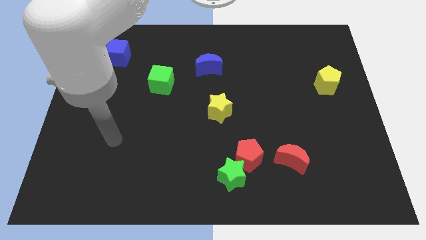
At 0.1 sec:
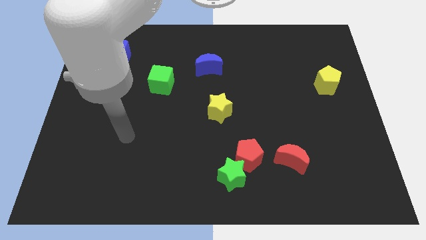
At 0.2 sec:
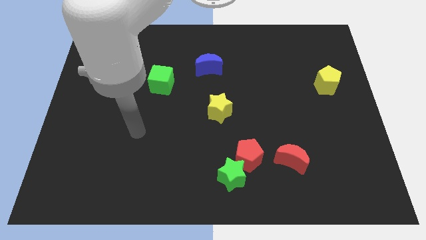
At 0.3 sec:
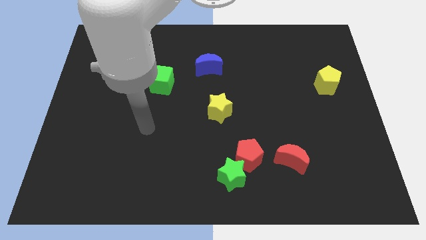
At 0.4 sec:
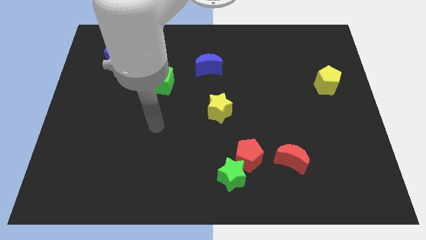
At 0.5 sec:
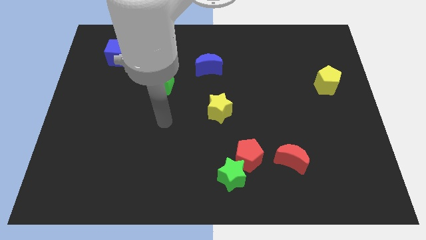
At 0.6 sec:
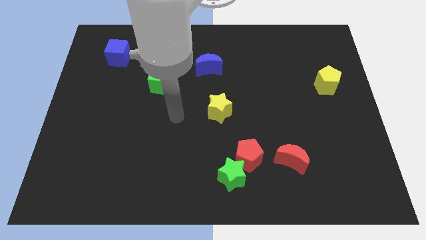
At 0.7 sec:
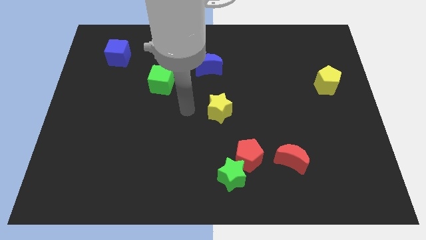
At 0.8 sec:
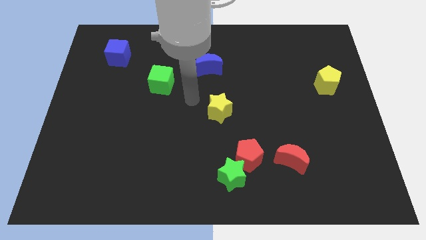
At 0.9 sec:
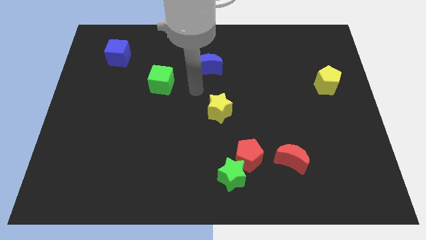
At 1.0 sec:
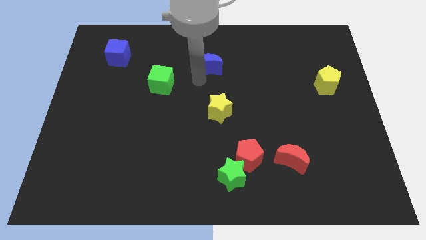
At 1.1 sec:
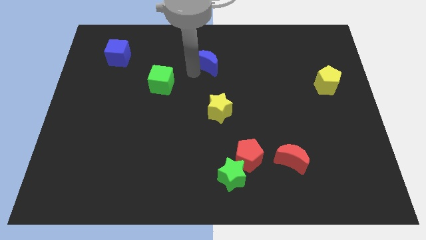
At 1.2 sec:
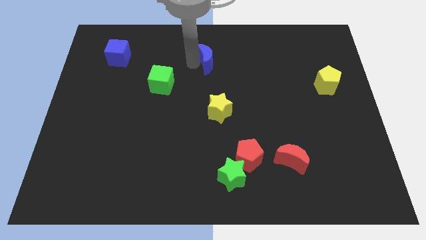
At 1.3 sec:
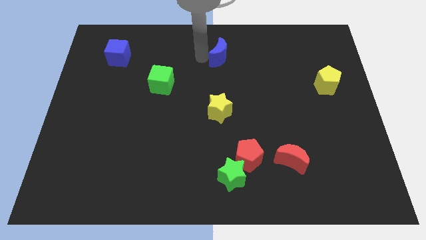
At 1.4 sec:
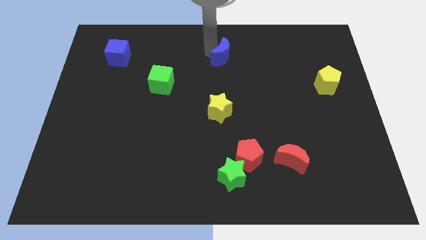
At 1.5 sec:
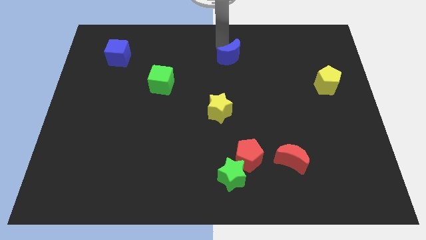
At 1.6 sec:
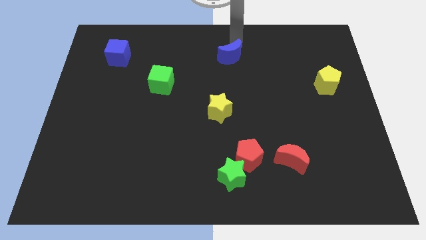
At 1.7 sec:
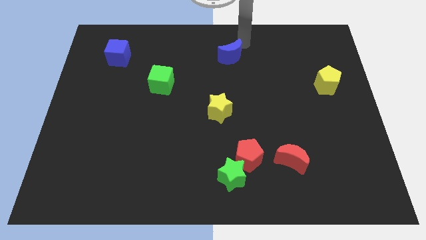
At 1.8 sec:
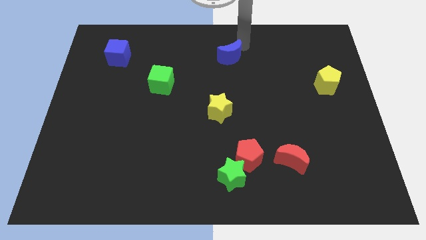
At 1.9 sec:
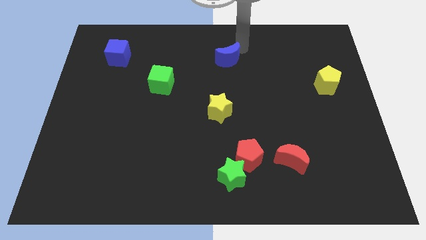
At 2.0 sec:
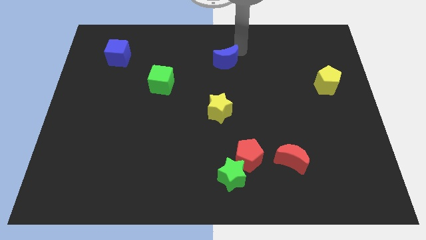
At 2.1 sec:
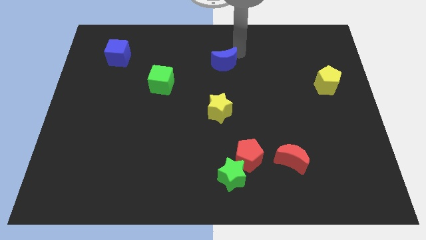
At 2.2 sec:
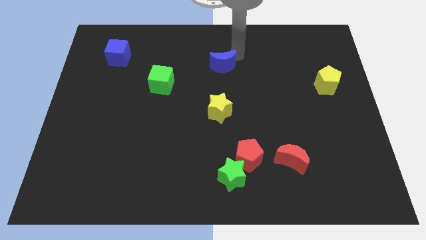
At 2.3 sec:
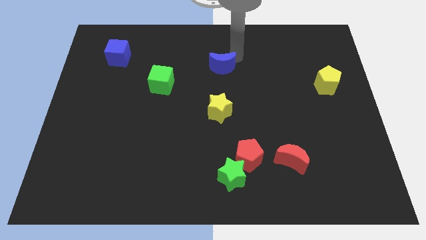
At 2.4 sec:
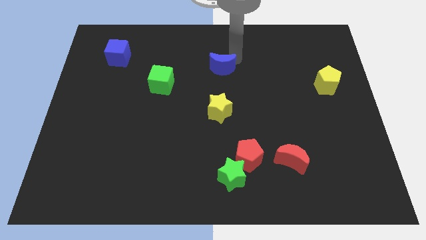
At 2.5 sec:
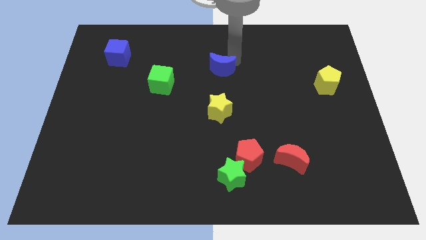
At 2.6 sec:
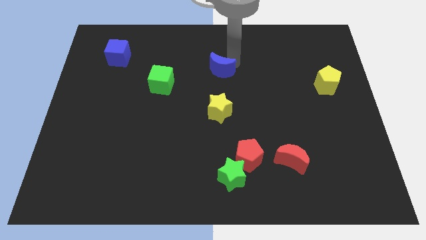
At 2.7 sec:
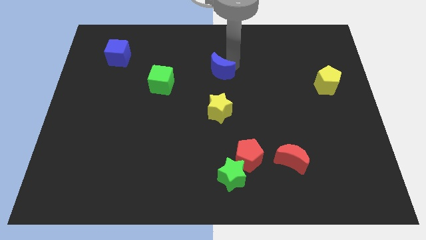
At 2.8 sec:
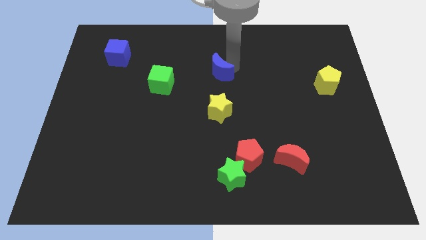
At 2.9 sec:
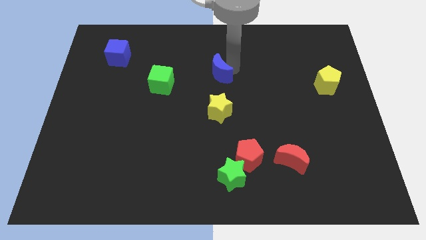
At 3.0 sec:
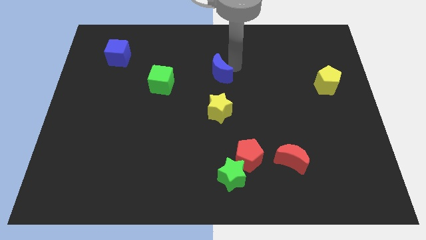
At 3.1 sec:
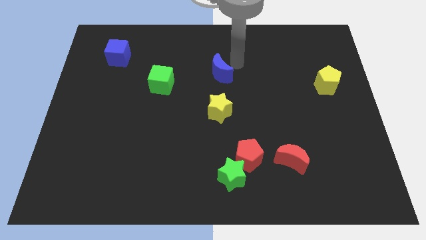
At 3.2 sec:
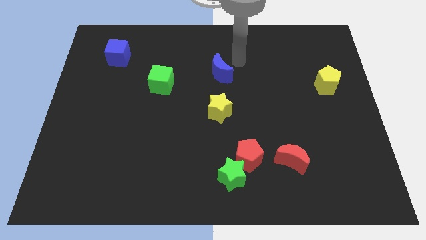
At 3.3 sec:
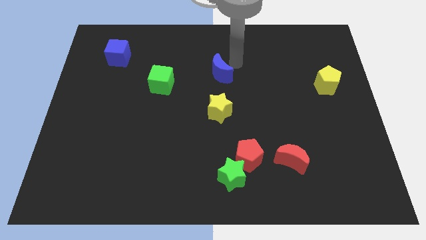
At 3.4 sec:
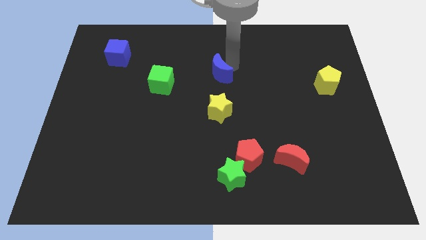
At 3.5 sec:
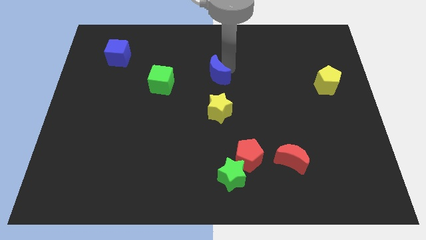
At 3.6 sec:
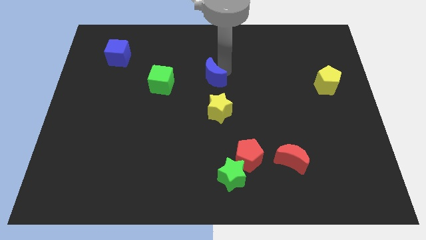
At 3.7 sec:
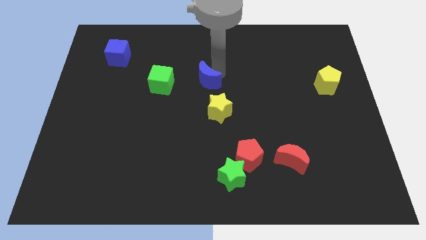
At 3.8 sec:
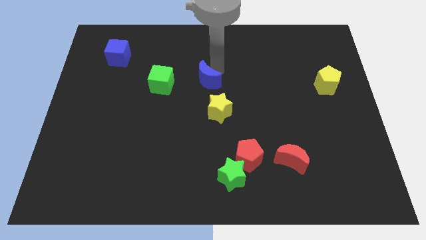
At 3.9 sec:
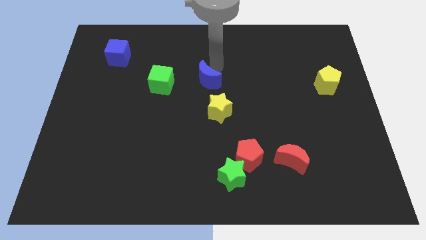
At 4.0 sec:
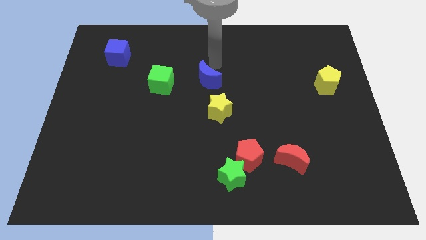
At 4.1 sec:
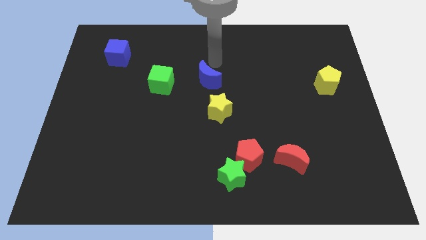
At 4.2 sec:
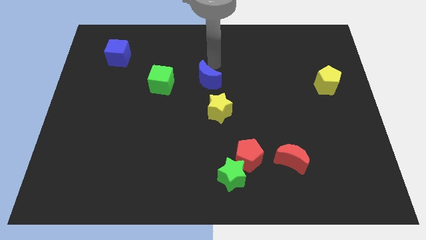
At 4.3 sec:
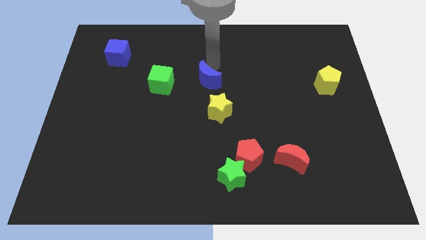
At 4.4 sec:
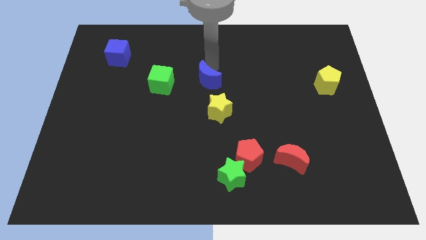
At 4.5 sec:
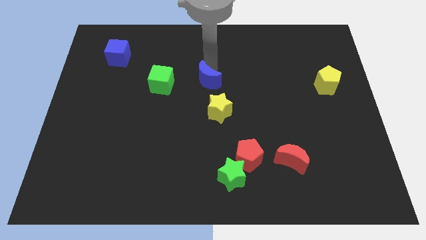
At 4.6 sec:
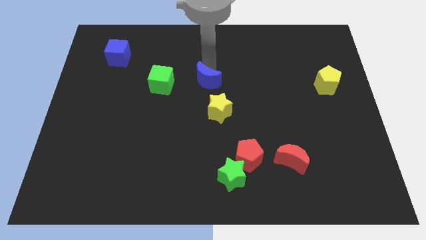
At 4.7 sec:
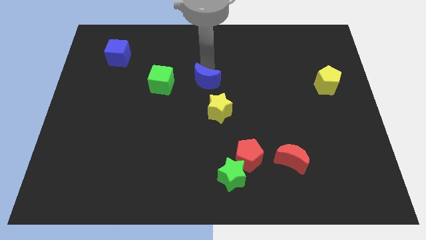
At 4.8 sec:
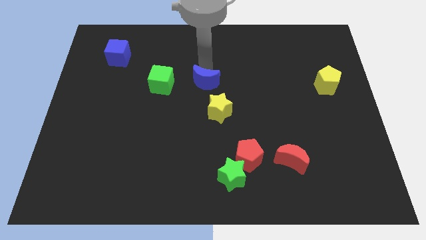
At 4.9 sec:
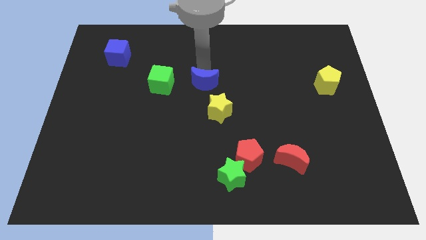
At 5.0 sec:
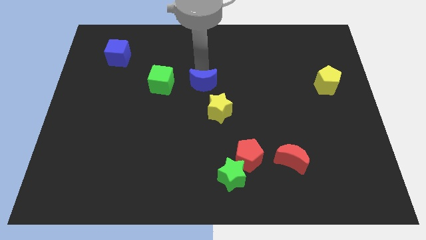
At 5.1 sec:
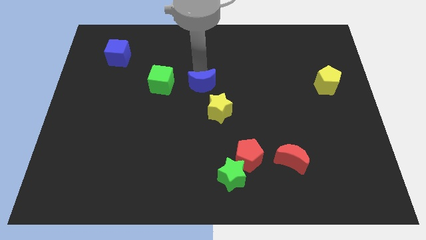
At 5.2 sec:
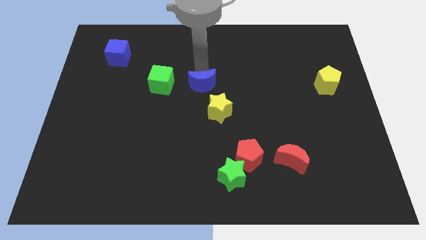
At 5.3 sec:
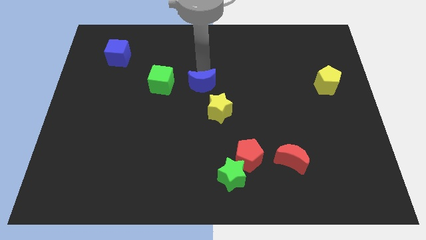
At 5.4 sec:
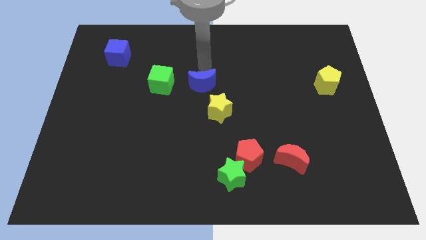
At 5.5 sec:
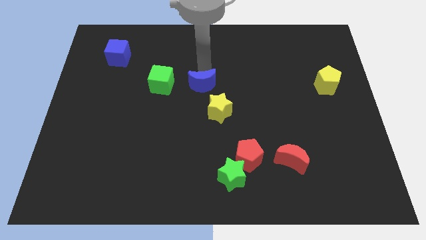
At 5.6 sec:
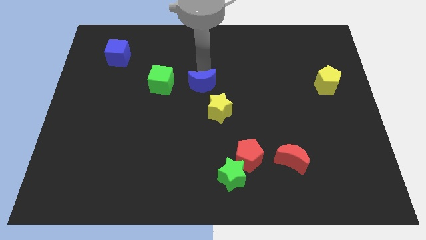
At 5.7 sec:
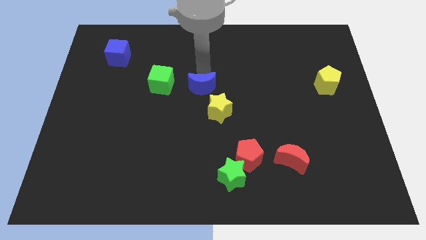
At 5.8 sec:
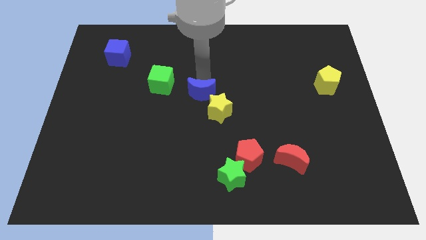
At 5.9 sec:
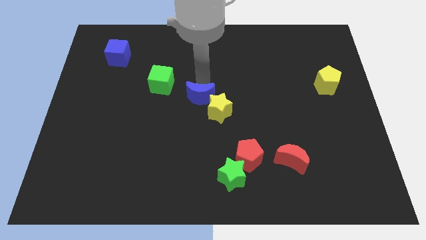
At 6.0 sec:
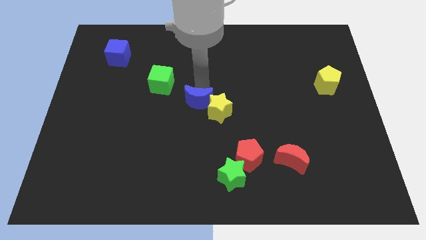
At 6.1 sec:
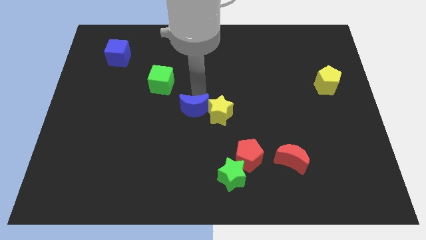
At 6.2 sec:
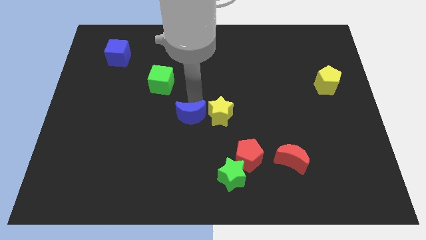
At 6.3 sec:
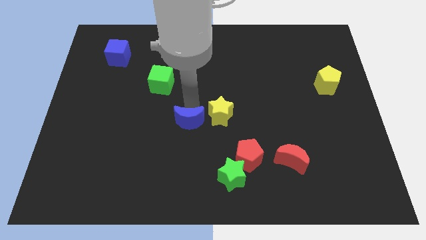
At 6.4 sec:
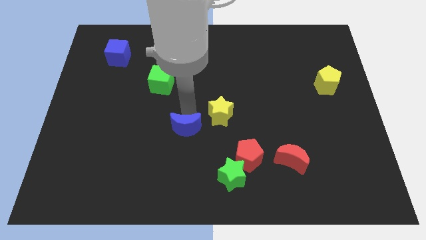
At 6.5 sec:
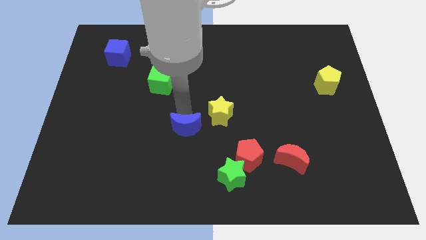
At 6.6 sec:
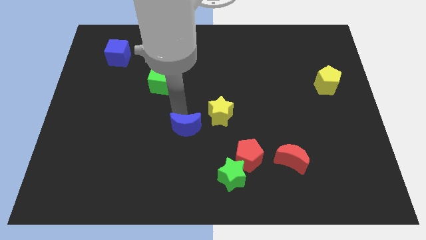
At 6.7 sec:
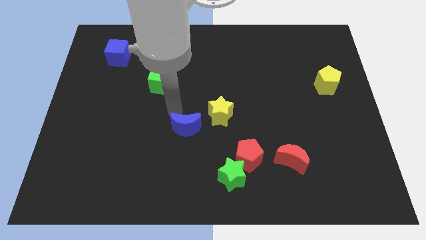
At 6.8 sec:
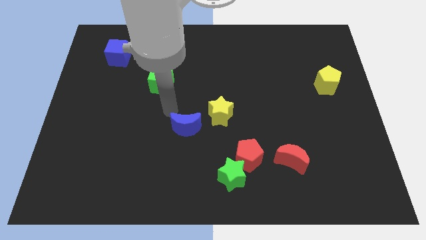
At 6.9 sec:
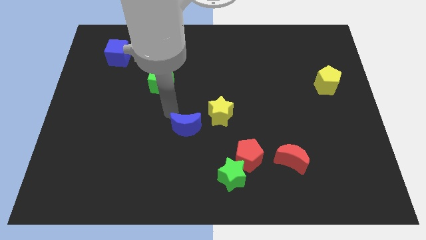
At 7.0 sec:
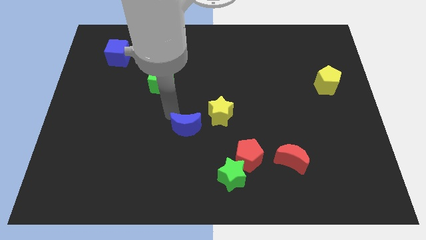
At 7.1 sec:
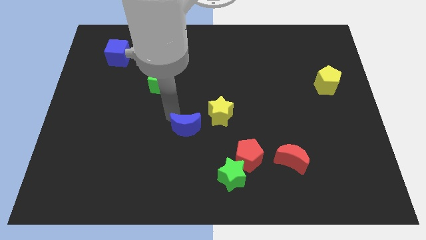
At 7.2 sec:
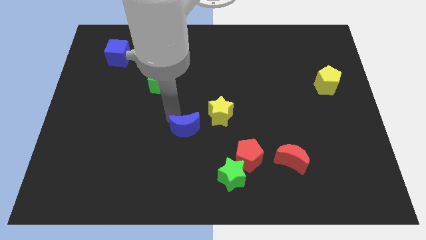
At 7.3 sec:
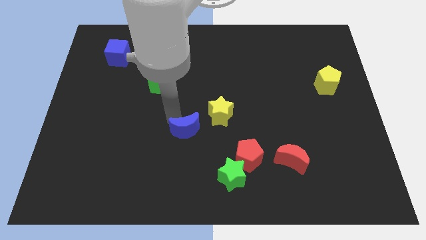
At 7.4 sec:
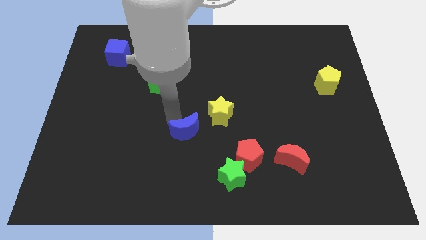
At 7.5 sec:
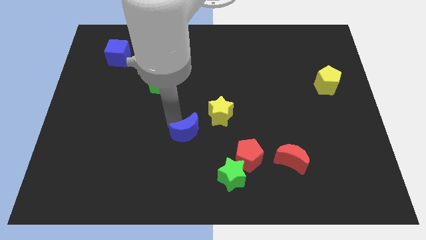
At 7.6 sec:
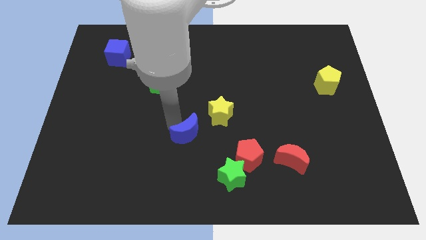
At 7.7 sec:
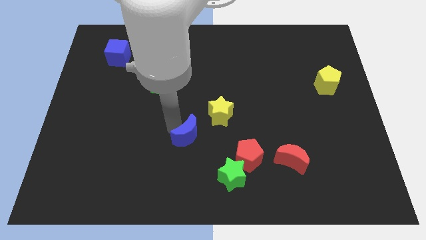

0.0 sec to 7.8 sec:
push the blue moon down
